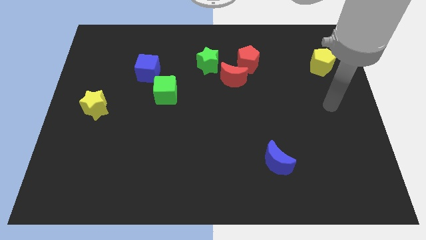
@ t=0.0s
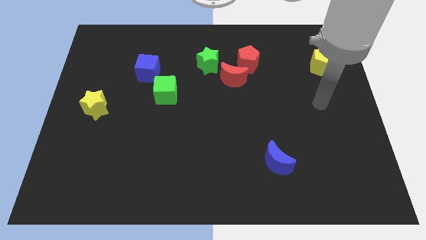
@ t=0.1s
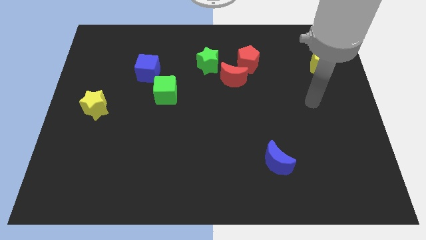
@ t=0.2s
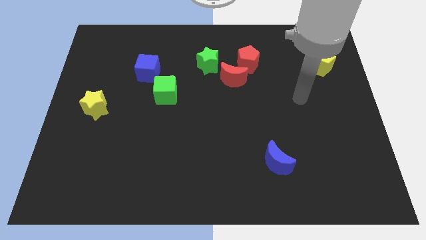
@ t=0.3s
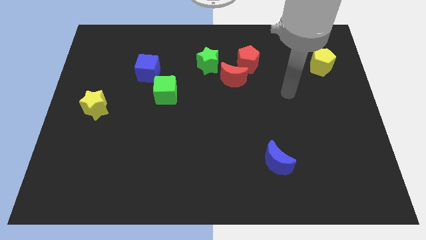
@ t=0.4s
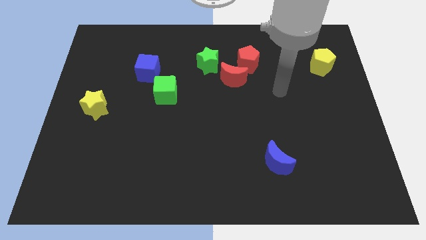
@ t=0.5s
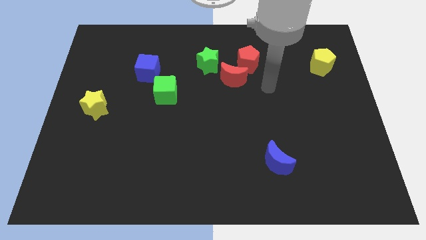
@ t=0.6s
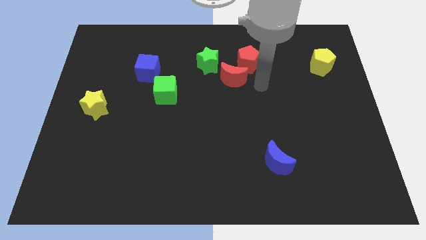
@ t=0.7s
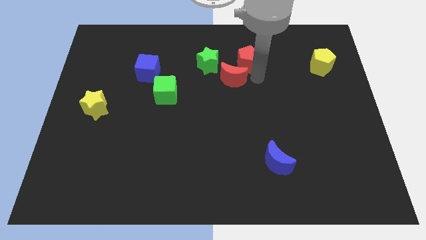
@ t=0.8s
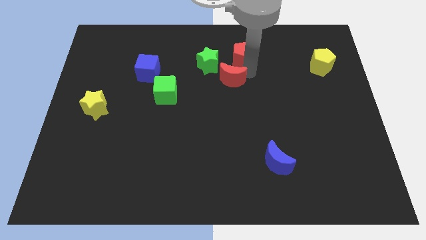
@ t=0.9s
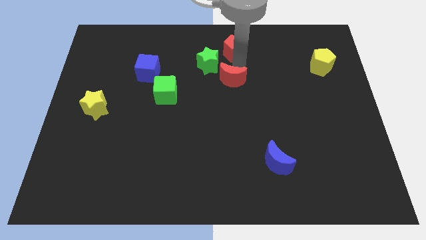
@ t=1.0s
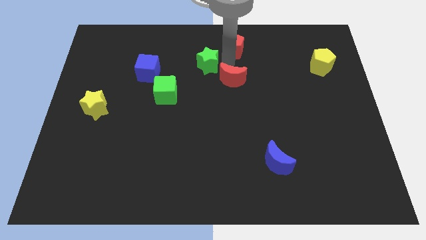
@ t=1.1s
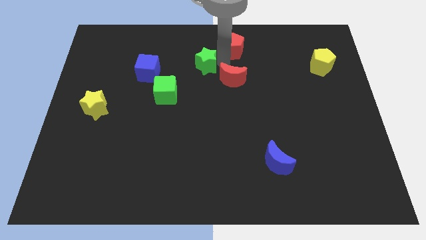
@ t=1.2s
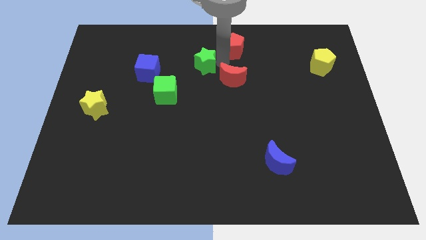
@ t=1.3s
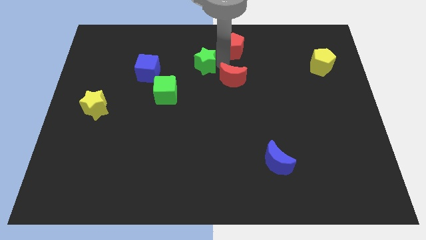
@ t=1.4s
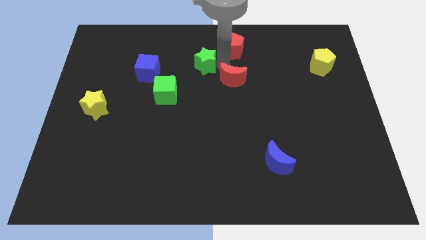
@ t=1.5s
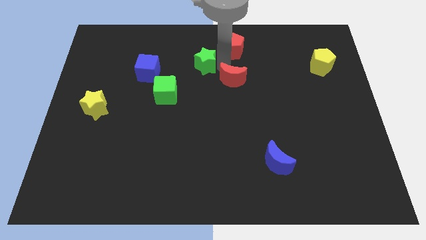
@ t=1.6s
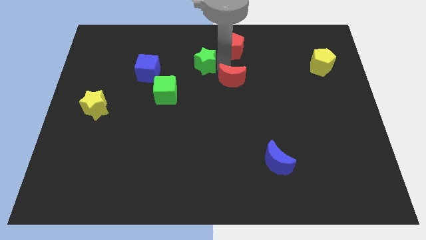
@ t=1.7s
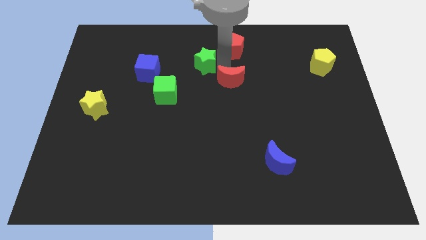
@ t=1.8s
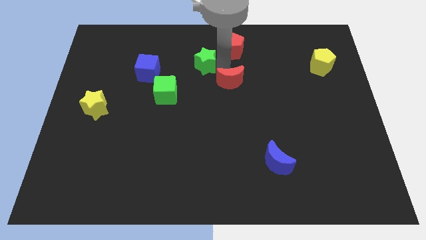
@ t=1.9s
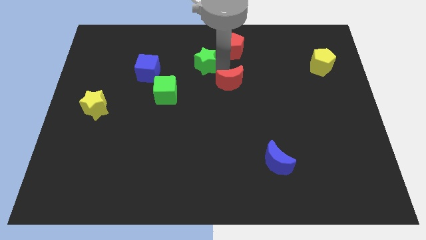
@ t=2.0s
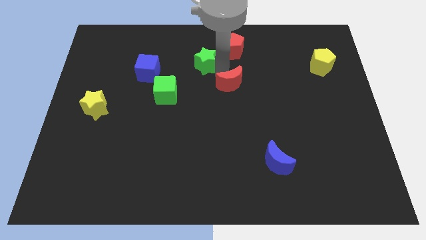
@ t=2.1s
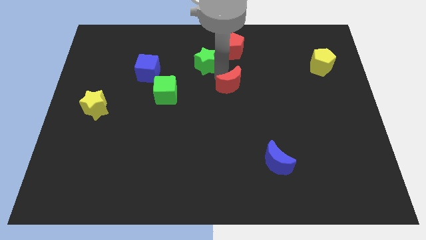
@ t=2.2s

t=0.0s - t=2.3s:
separate the red moon from the red pentagon and green star

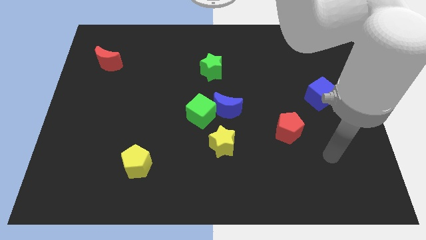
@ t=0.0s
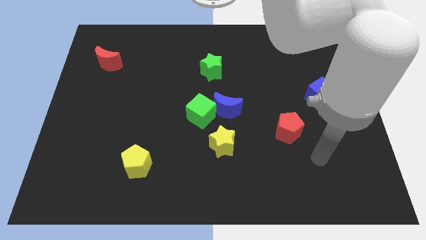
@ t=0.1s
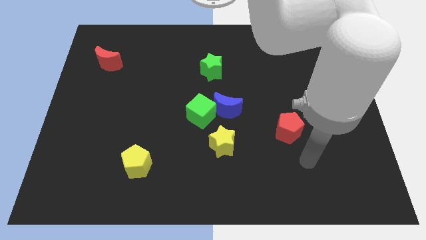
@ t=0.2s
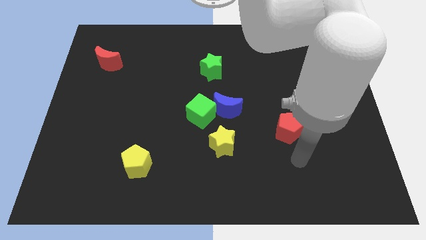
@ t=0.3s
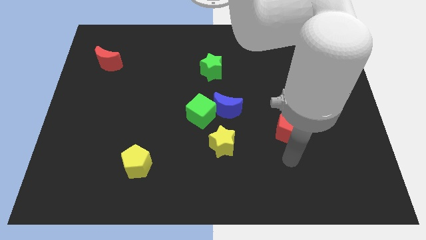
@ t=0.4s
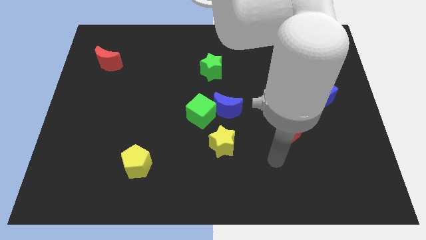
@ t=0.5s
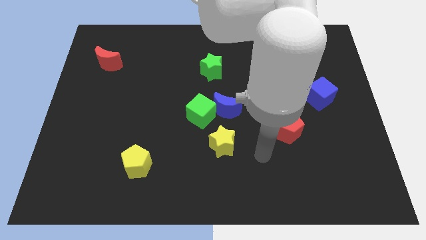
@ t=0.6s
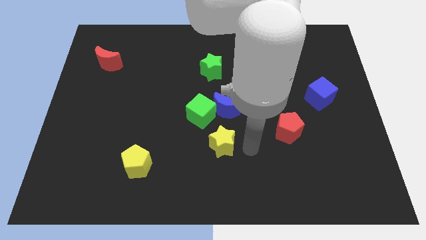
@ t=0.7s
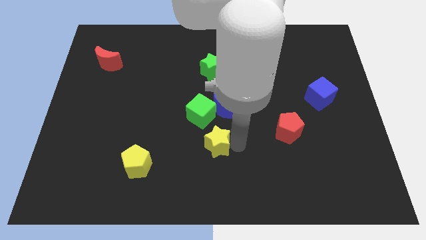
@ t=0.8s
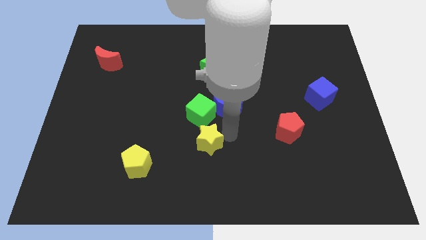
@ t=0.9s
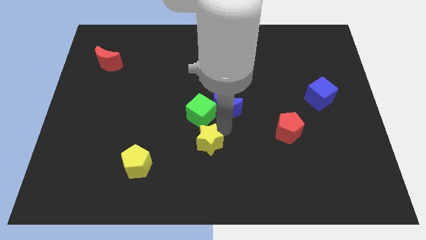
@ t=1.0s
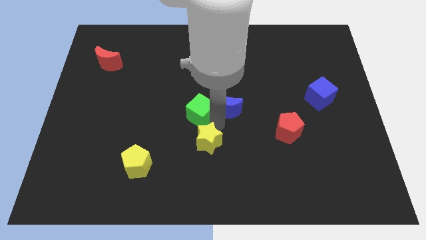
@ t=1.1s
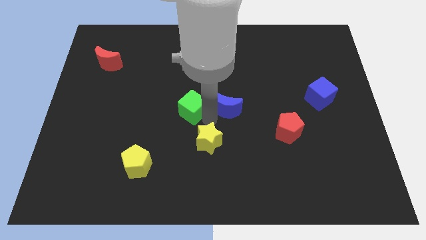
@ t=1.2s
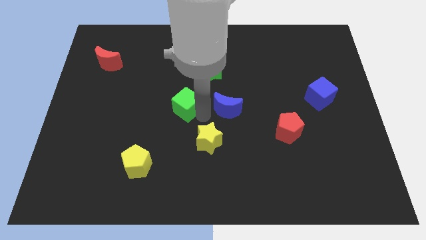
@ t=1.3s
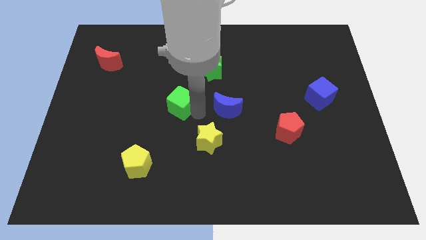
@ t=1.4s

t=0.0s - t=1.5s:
separate the green cube from the blue moon and yellow star

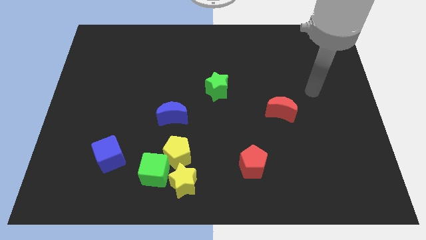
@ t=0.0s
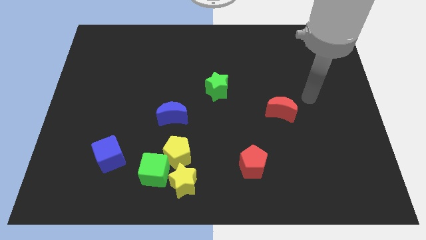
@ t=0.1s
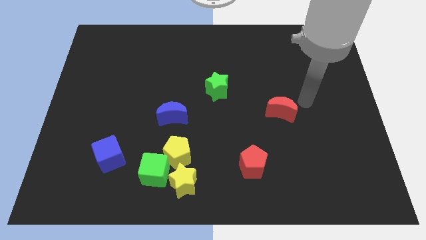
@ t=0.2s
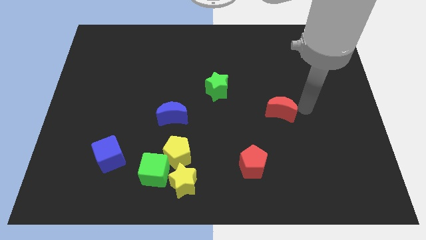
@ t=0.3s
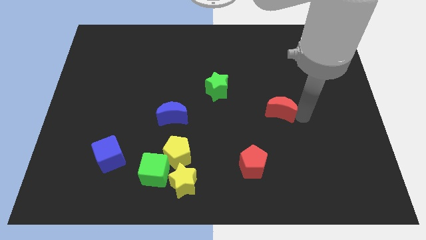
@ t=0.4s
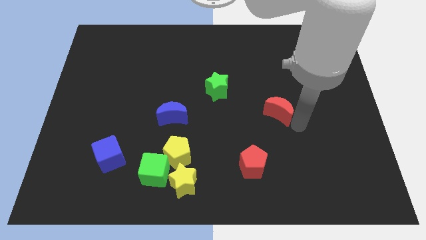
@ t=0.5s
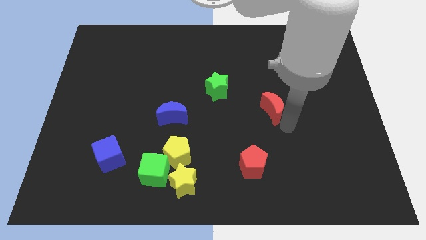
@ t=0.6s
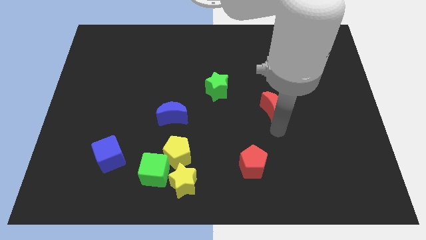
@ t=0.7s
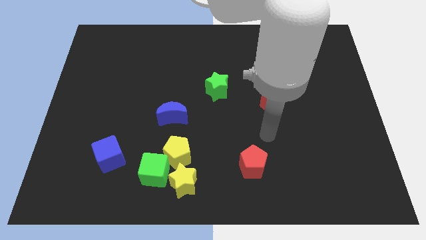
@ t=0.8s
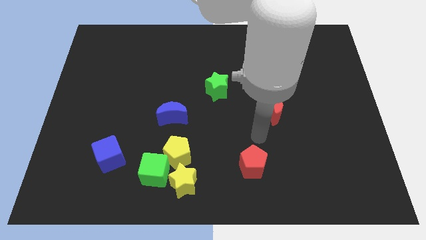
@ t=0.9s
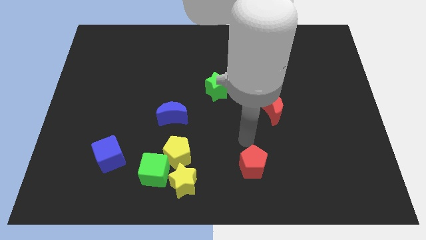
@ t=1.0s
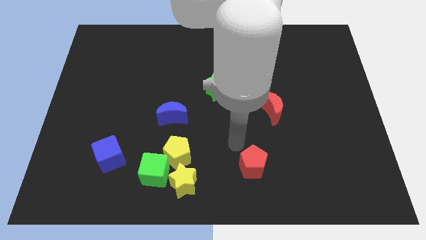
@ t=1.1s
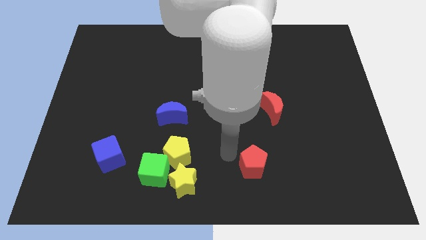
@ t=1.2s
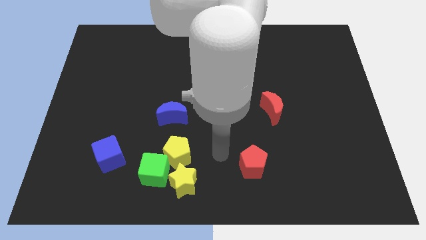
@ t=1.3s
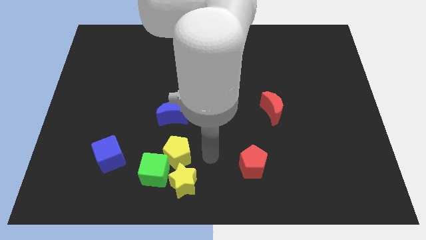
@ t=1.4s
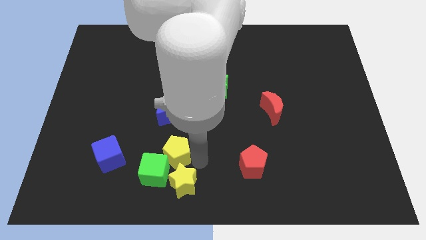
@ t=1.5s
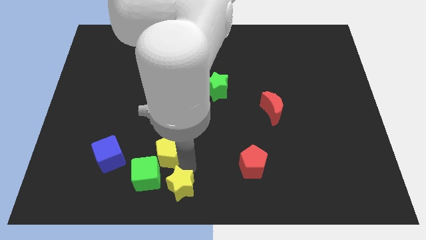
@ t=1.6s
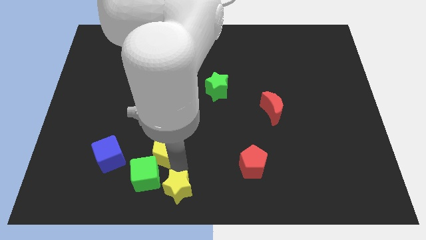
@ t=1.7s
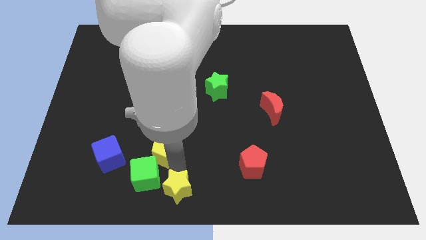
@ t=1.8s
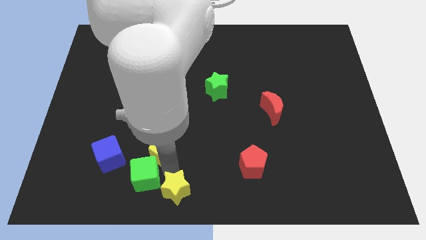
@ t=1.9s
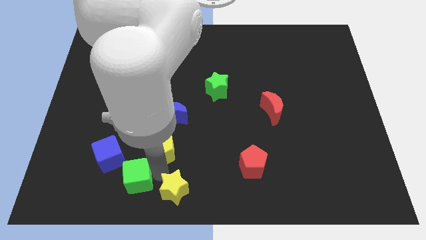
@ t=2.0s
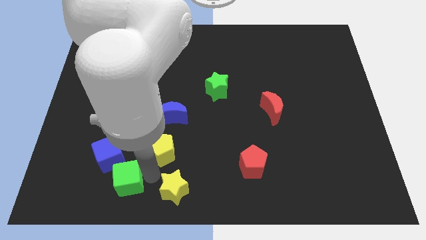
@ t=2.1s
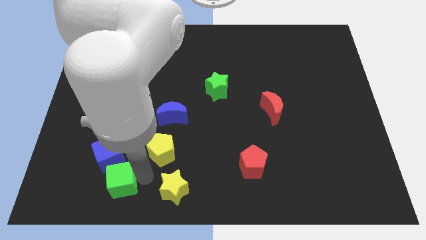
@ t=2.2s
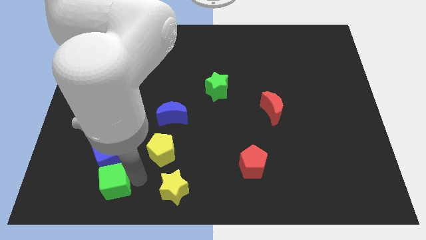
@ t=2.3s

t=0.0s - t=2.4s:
move the green cube away from the yellow pentagon and yellow star

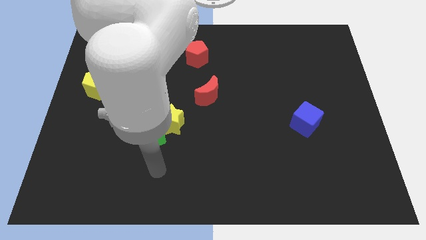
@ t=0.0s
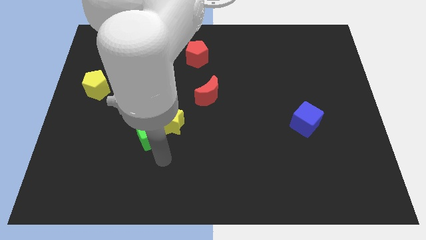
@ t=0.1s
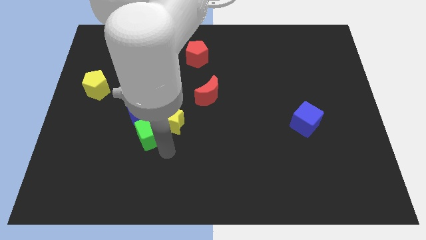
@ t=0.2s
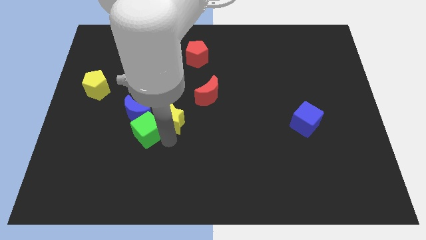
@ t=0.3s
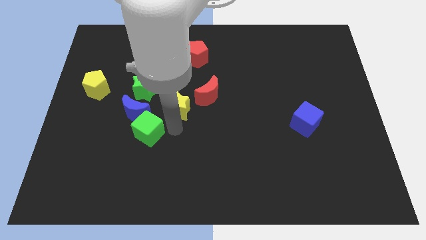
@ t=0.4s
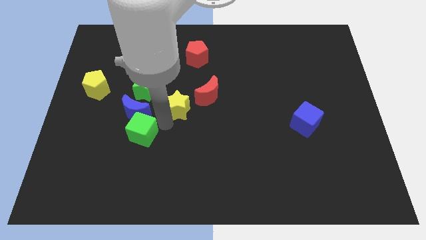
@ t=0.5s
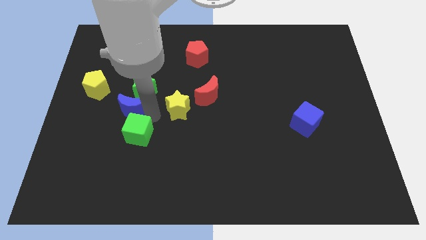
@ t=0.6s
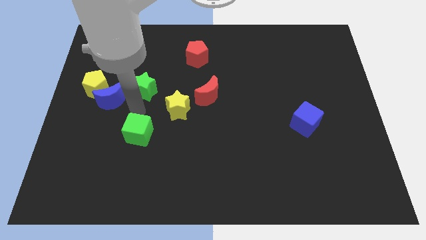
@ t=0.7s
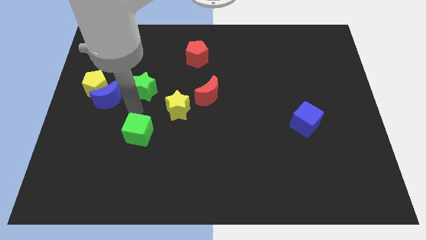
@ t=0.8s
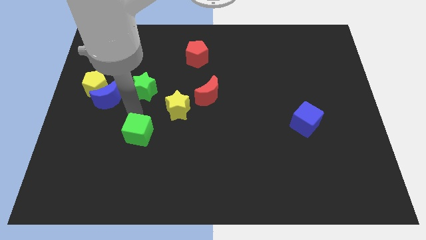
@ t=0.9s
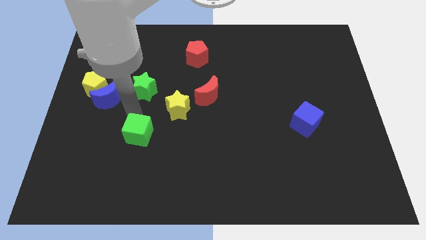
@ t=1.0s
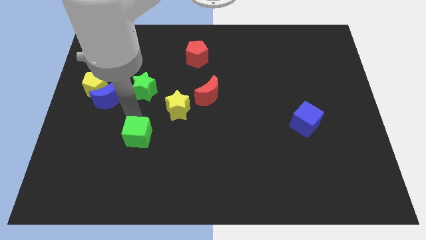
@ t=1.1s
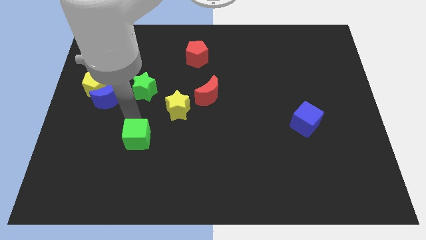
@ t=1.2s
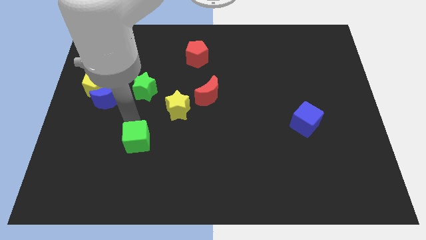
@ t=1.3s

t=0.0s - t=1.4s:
separate the green cube from the yellow star and blue moon

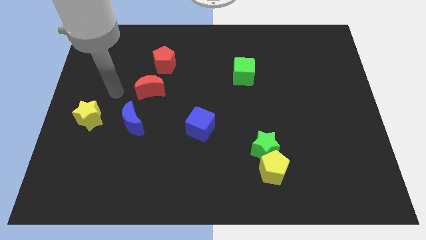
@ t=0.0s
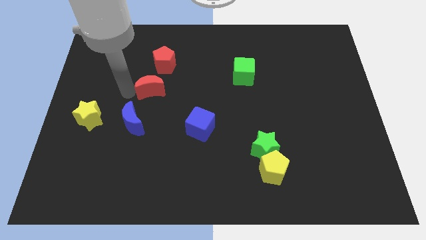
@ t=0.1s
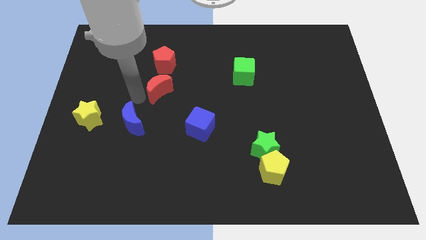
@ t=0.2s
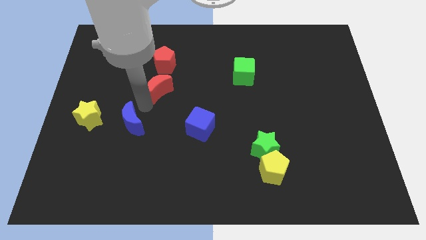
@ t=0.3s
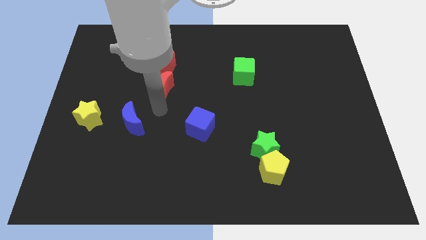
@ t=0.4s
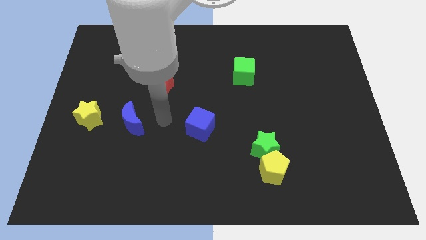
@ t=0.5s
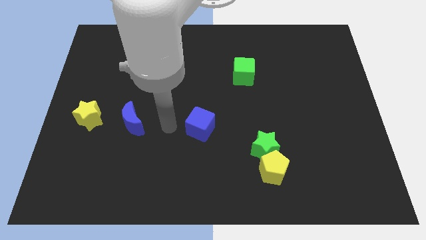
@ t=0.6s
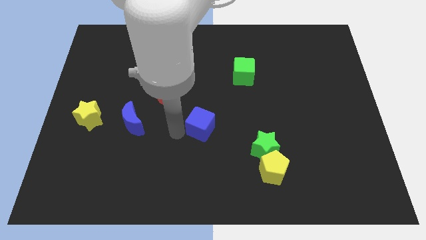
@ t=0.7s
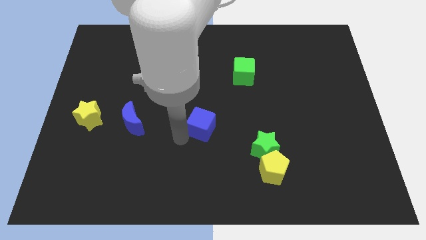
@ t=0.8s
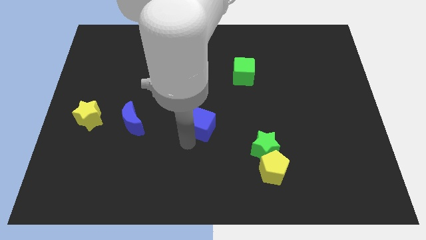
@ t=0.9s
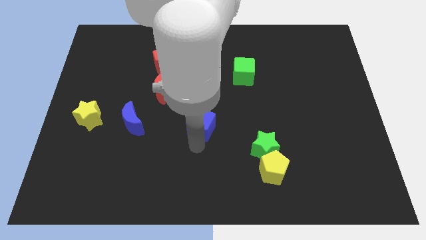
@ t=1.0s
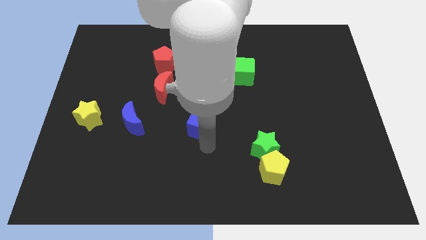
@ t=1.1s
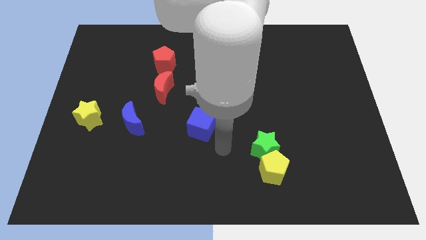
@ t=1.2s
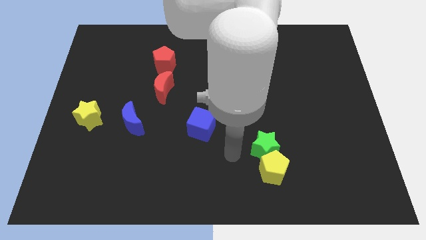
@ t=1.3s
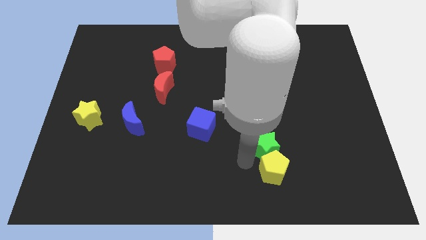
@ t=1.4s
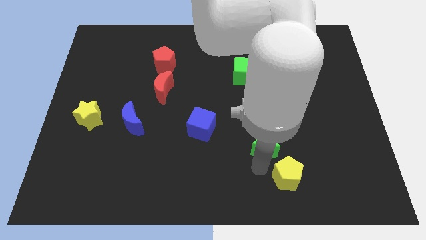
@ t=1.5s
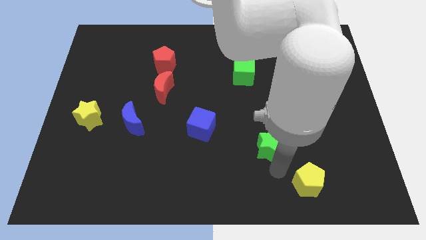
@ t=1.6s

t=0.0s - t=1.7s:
move the green star away from the yellow pentagon
